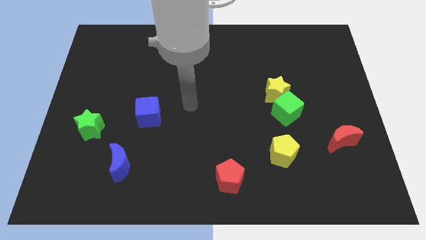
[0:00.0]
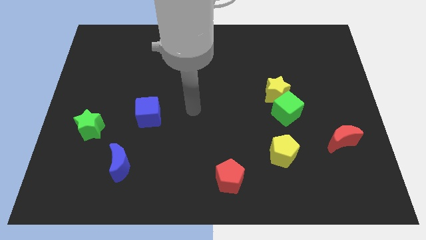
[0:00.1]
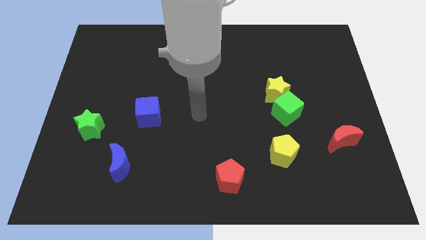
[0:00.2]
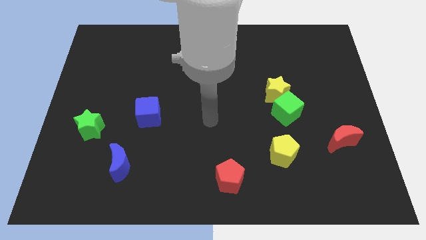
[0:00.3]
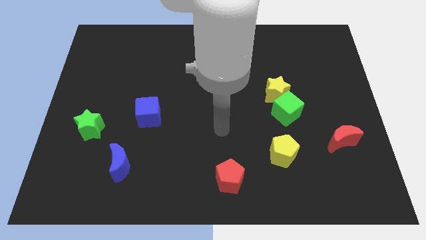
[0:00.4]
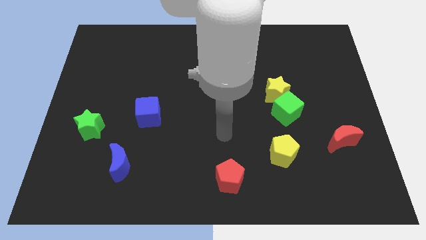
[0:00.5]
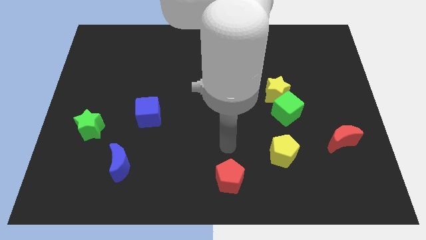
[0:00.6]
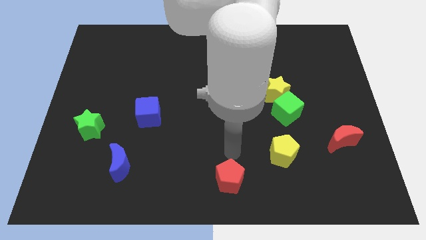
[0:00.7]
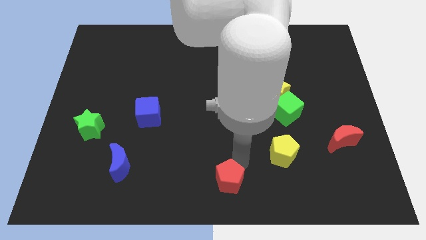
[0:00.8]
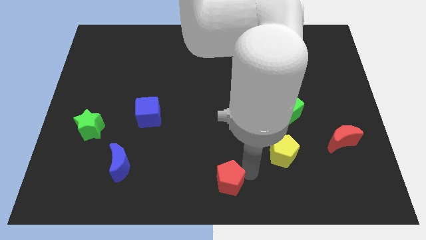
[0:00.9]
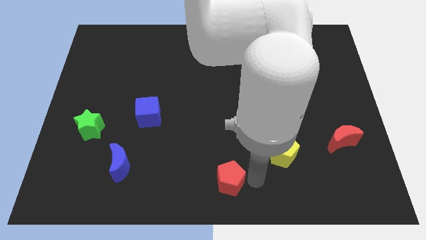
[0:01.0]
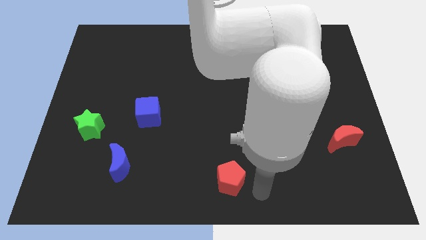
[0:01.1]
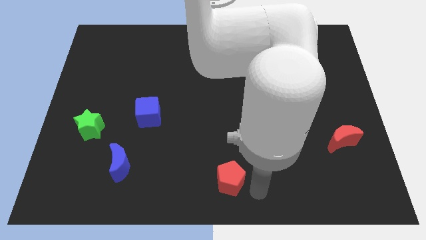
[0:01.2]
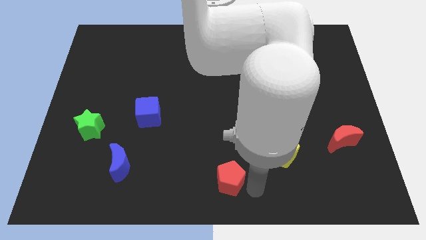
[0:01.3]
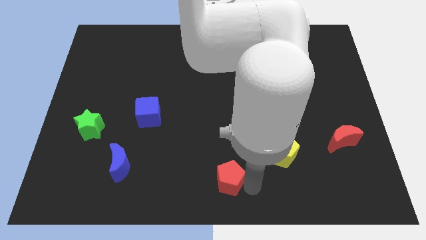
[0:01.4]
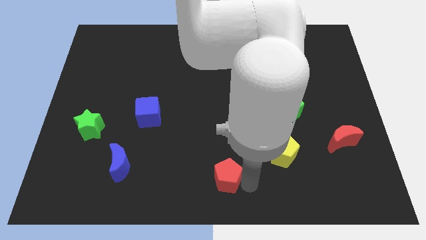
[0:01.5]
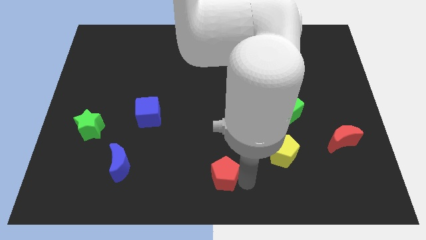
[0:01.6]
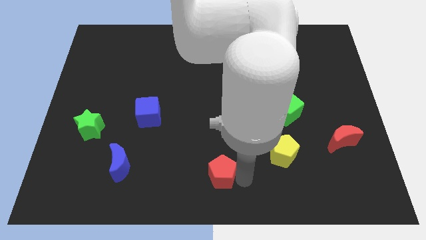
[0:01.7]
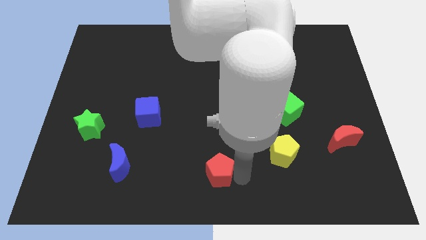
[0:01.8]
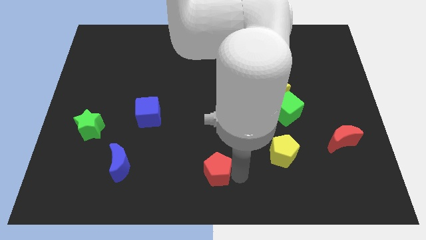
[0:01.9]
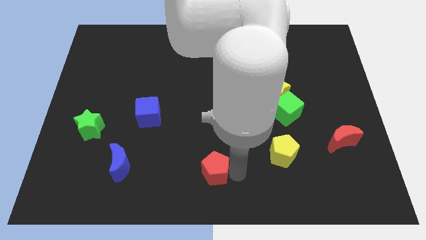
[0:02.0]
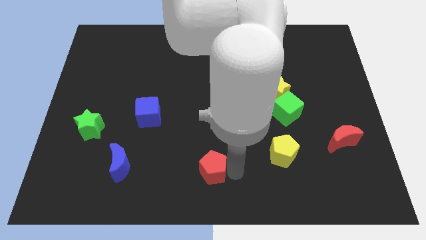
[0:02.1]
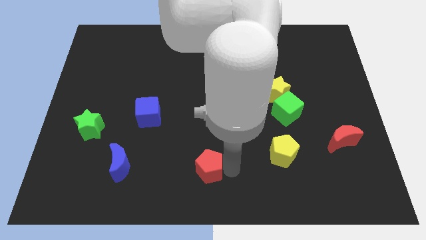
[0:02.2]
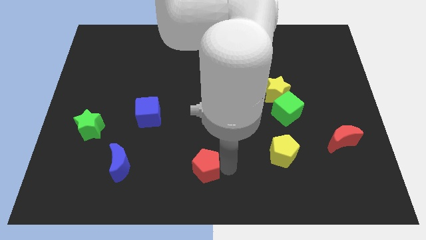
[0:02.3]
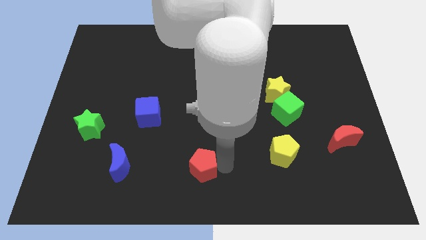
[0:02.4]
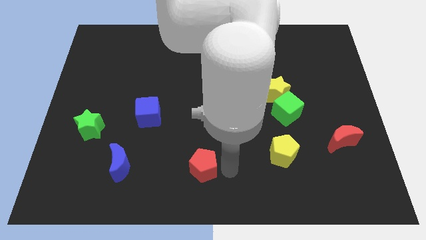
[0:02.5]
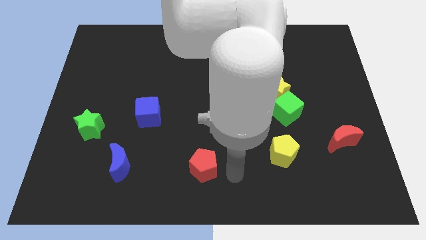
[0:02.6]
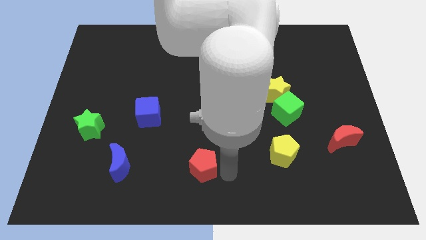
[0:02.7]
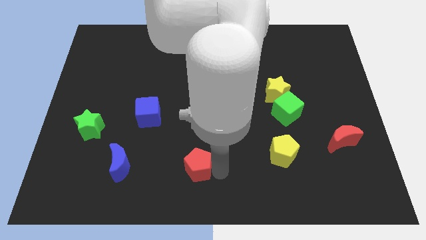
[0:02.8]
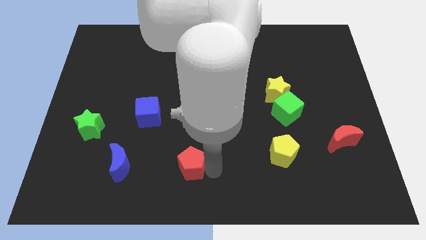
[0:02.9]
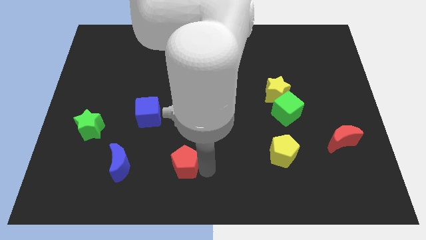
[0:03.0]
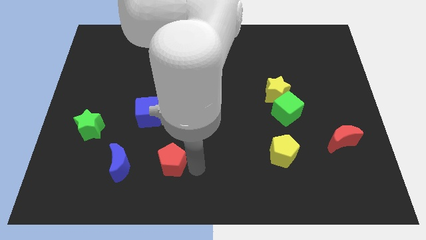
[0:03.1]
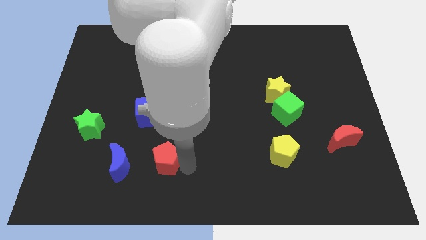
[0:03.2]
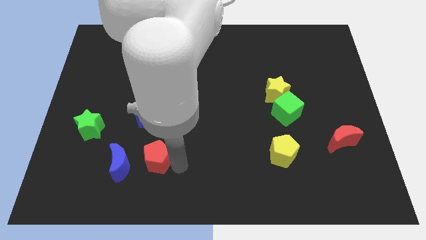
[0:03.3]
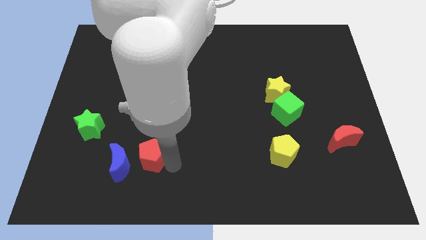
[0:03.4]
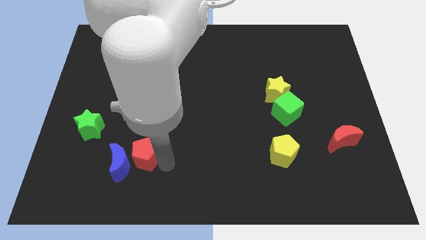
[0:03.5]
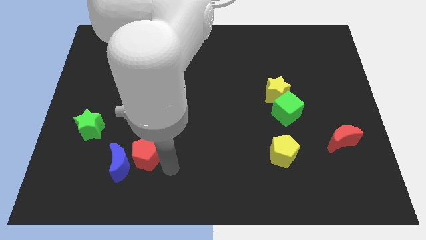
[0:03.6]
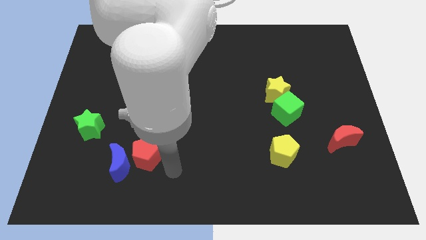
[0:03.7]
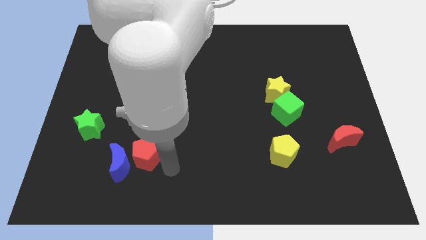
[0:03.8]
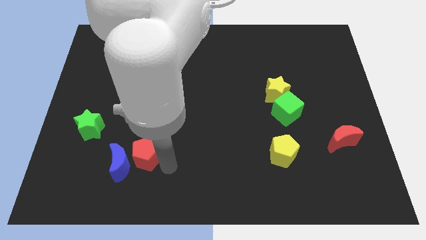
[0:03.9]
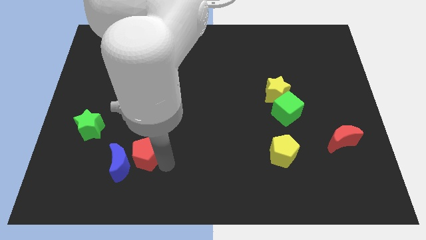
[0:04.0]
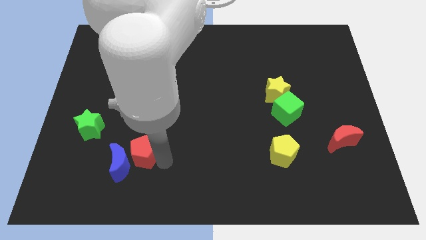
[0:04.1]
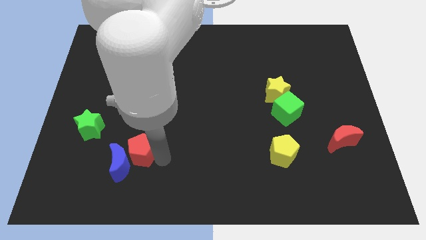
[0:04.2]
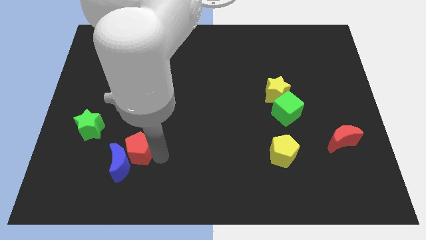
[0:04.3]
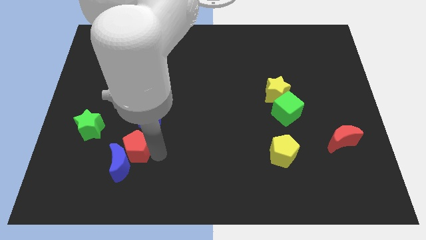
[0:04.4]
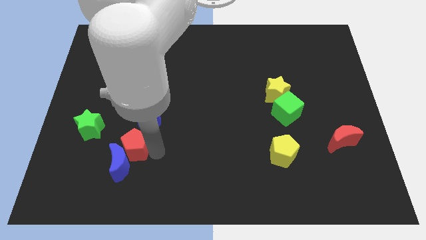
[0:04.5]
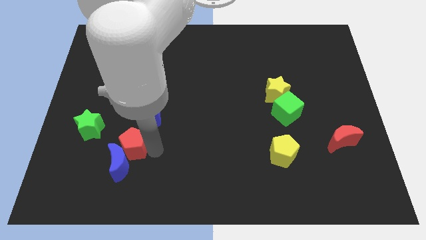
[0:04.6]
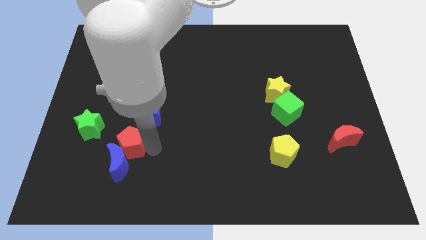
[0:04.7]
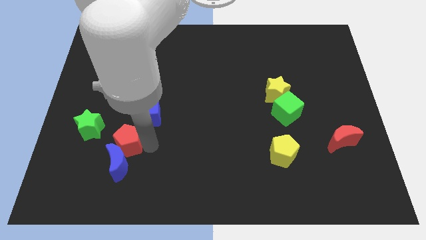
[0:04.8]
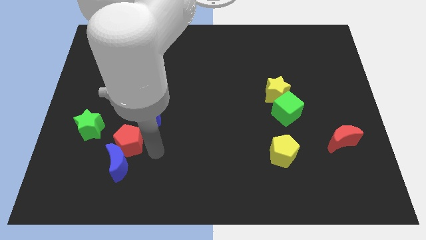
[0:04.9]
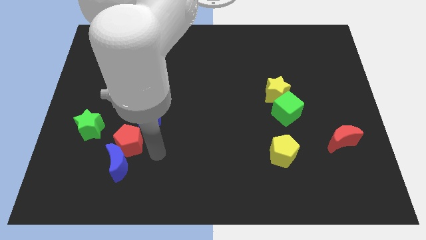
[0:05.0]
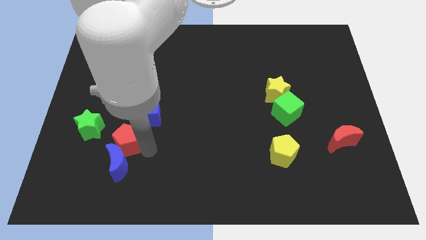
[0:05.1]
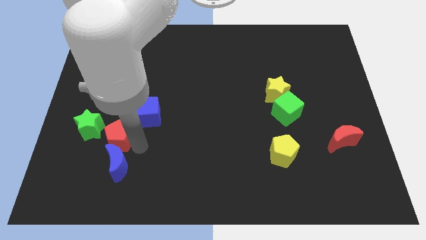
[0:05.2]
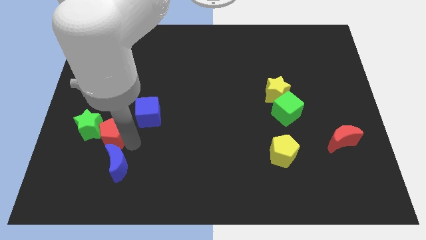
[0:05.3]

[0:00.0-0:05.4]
put the red pentagon to the green star

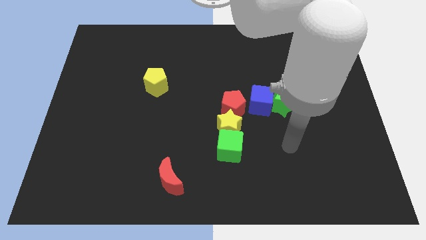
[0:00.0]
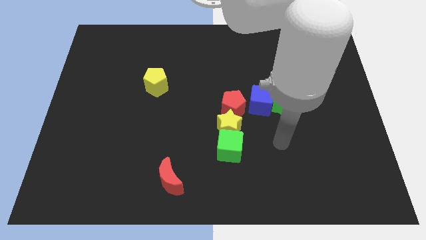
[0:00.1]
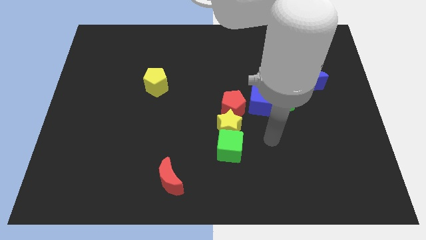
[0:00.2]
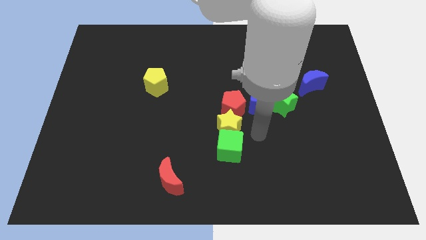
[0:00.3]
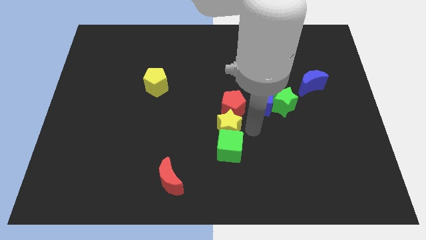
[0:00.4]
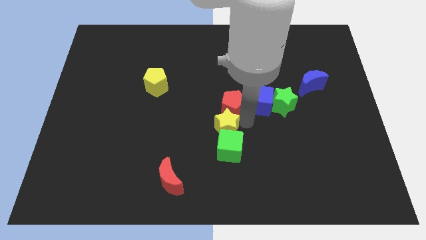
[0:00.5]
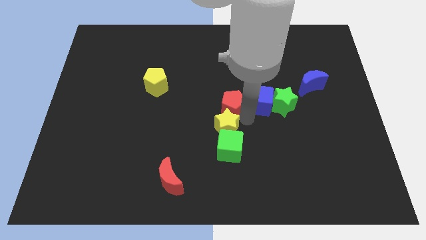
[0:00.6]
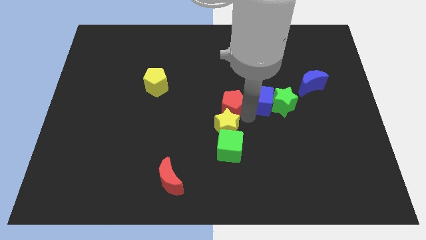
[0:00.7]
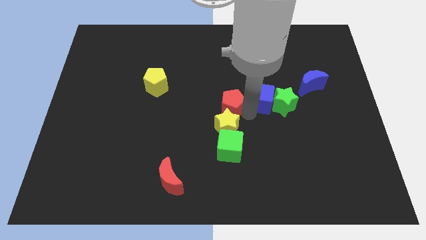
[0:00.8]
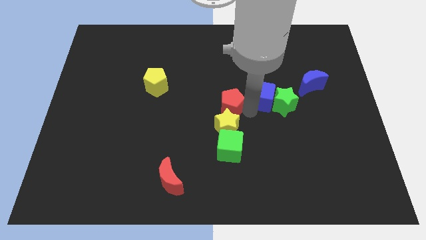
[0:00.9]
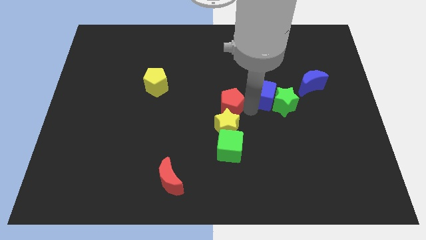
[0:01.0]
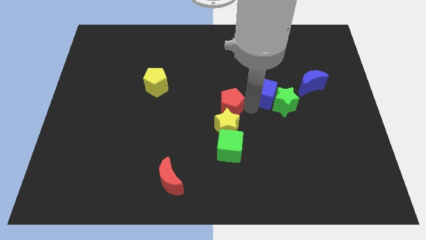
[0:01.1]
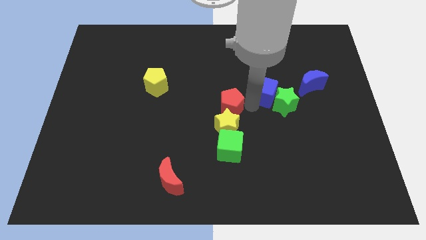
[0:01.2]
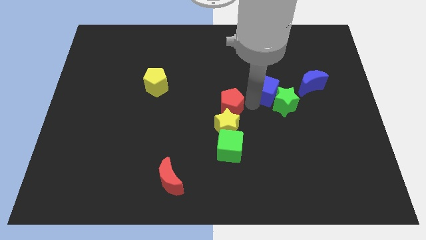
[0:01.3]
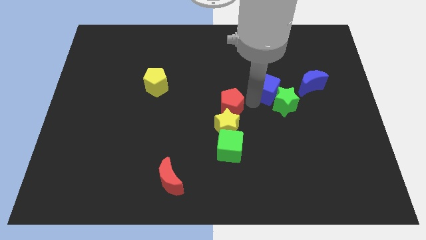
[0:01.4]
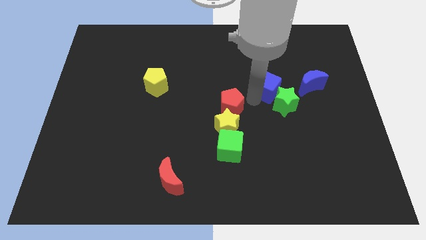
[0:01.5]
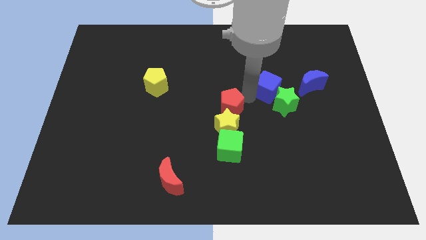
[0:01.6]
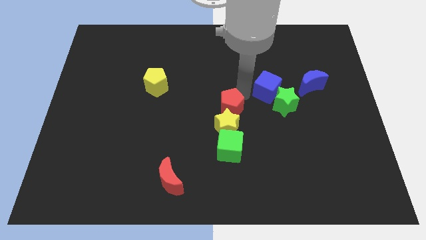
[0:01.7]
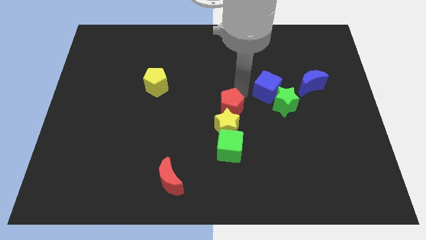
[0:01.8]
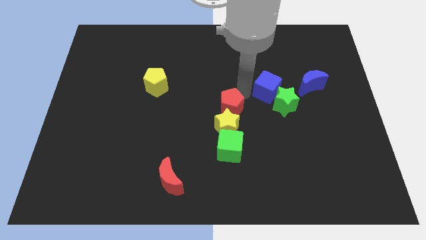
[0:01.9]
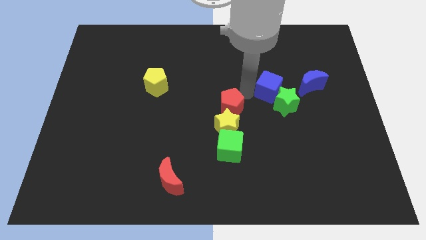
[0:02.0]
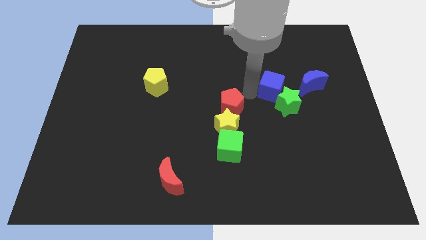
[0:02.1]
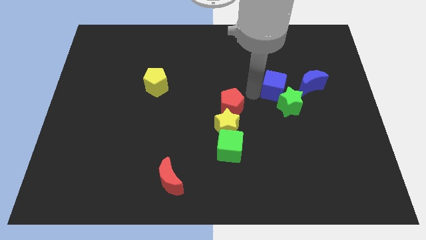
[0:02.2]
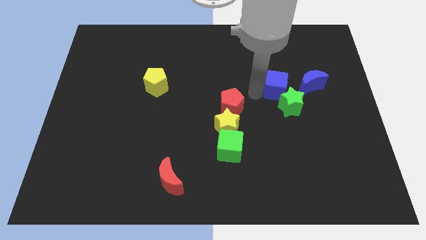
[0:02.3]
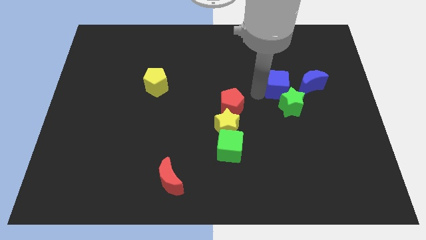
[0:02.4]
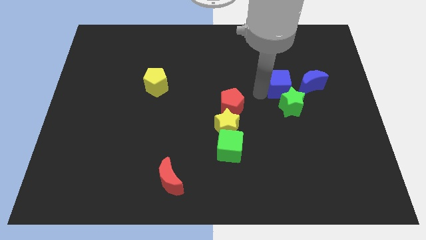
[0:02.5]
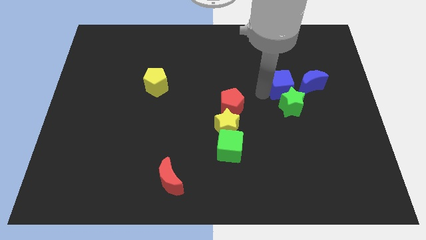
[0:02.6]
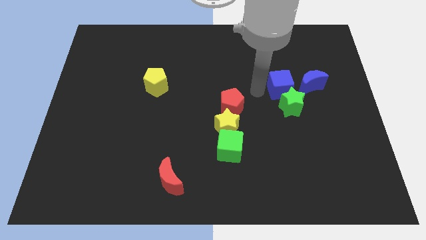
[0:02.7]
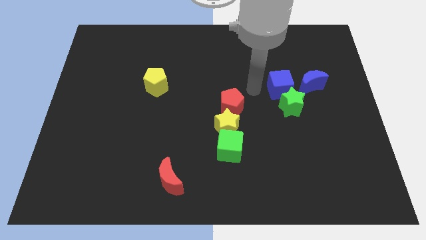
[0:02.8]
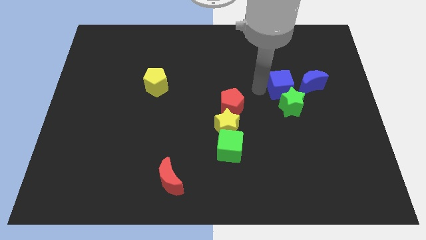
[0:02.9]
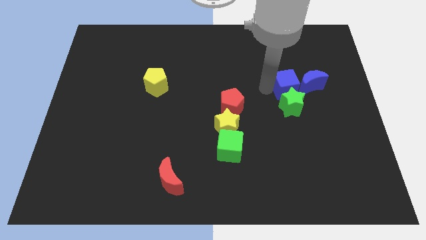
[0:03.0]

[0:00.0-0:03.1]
slide the blue cube towards the blue moon
